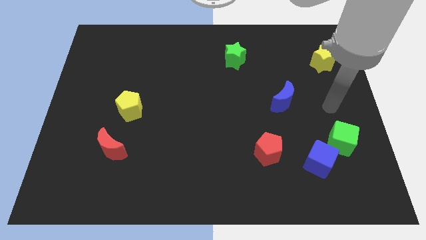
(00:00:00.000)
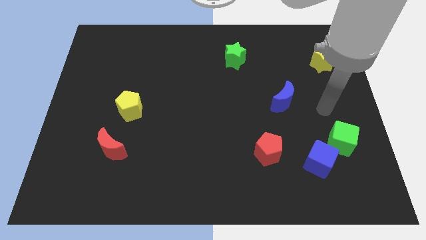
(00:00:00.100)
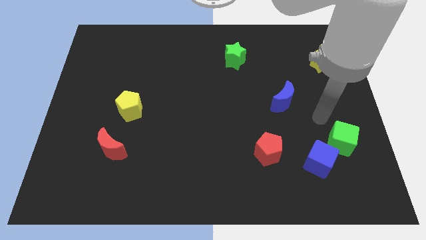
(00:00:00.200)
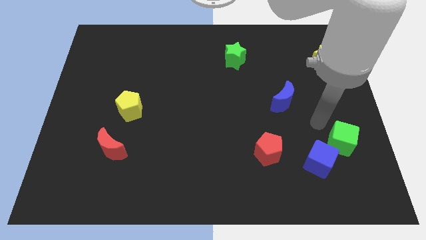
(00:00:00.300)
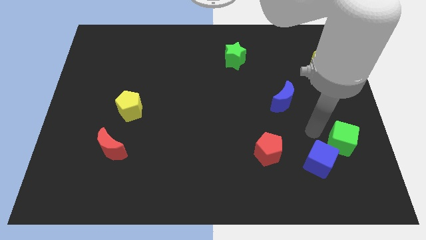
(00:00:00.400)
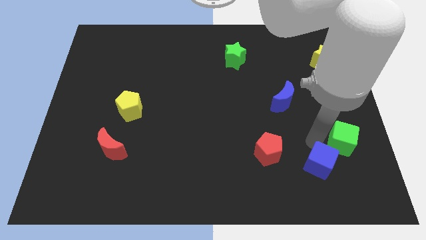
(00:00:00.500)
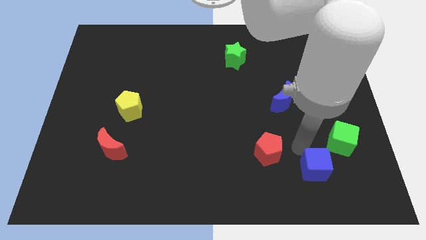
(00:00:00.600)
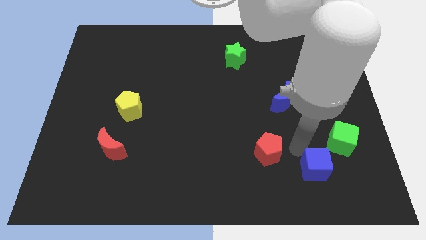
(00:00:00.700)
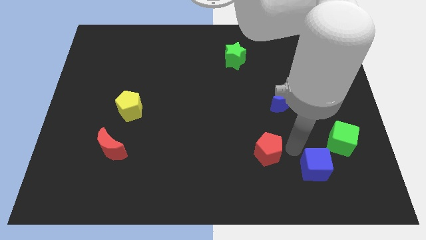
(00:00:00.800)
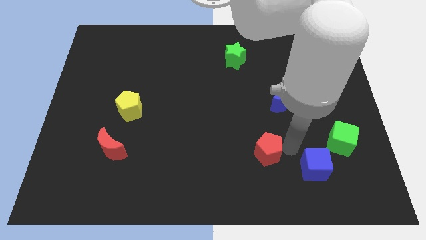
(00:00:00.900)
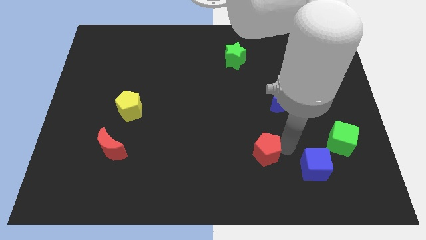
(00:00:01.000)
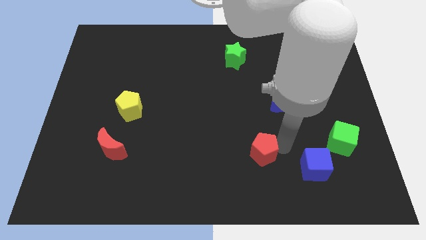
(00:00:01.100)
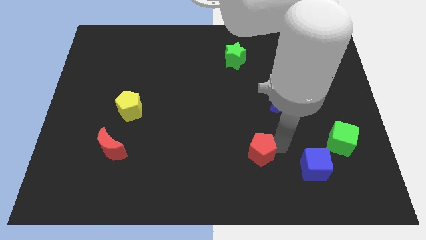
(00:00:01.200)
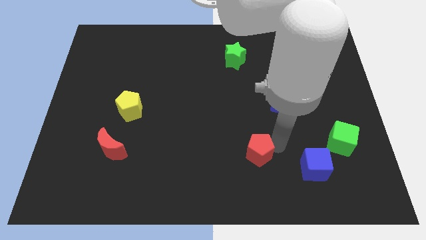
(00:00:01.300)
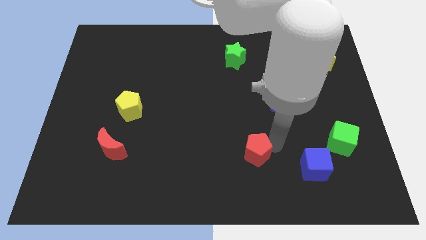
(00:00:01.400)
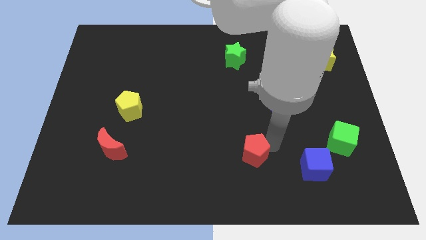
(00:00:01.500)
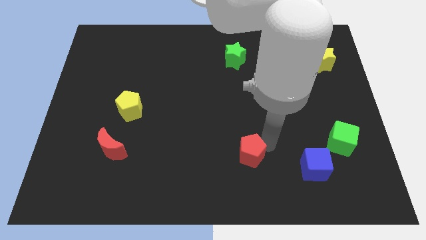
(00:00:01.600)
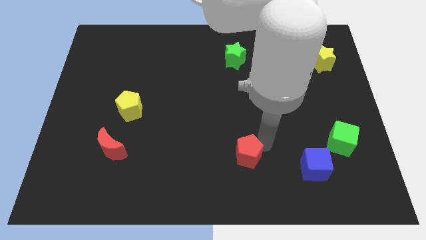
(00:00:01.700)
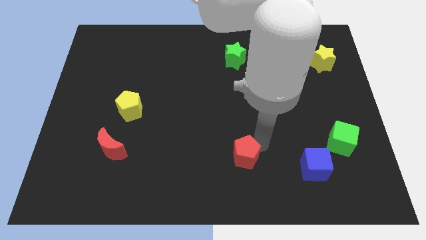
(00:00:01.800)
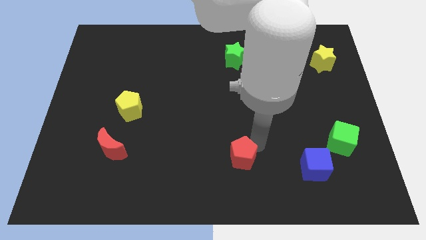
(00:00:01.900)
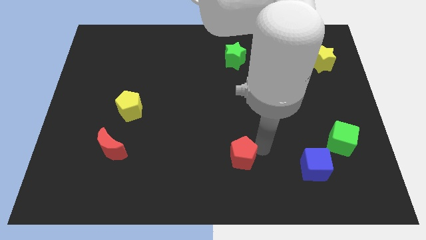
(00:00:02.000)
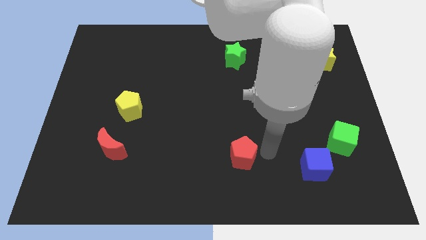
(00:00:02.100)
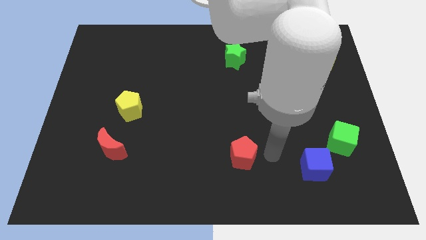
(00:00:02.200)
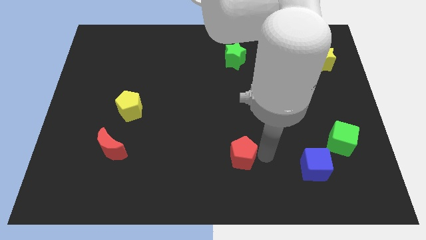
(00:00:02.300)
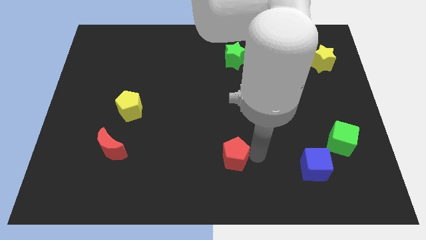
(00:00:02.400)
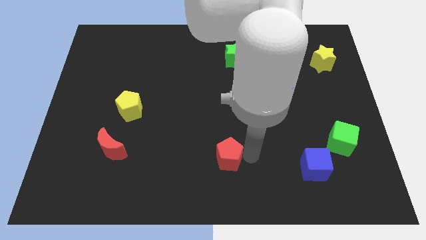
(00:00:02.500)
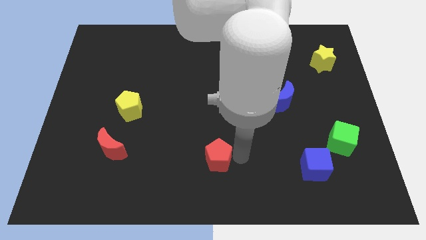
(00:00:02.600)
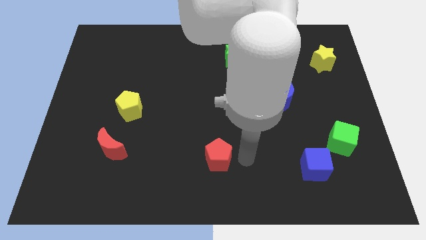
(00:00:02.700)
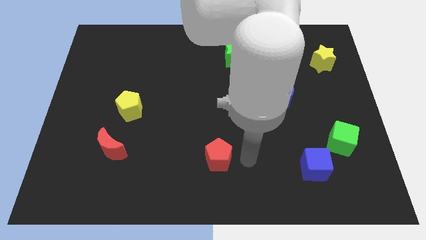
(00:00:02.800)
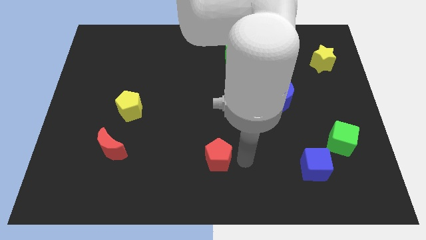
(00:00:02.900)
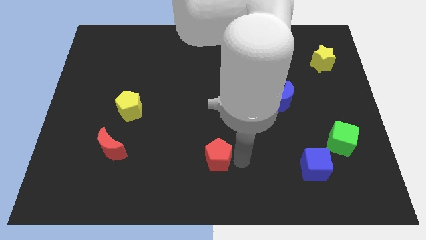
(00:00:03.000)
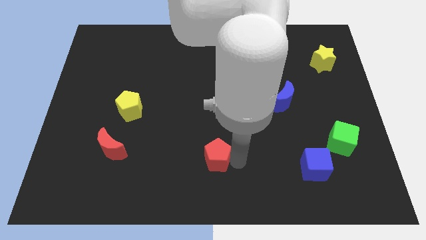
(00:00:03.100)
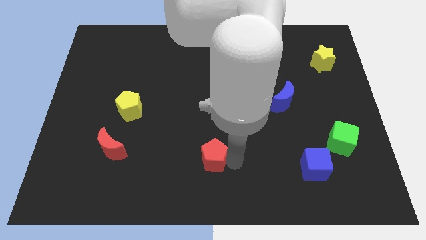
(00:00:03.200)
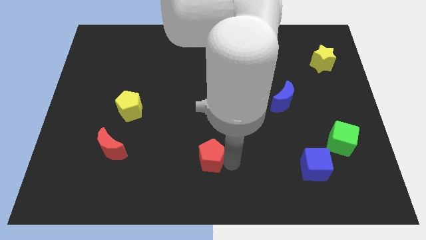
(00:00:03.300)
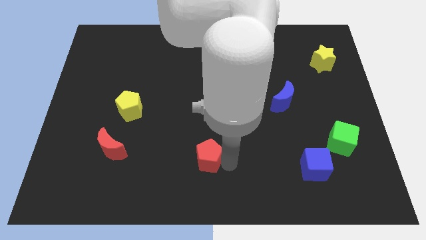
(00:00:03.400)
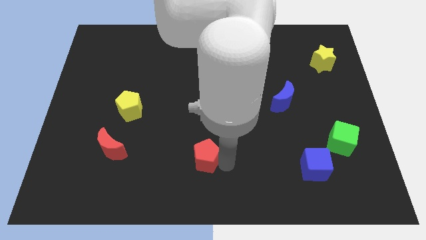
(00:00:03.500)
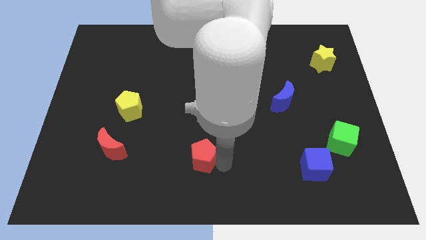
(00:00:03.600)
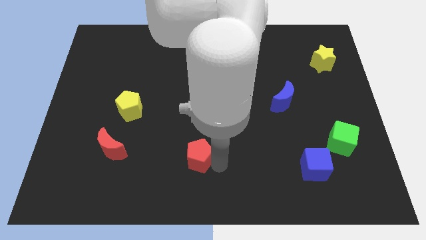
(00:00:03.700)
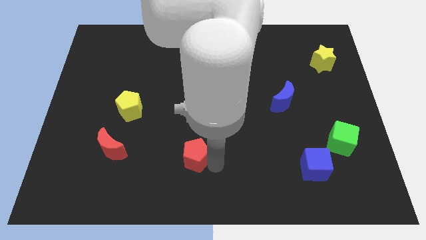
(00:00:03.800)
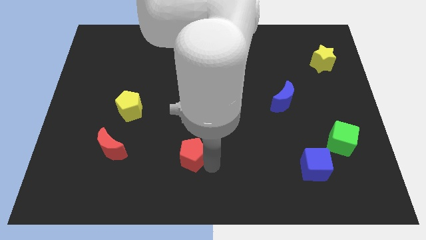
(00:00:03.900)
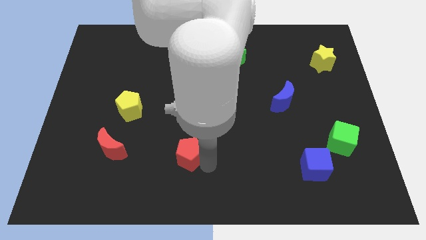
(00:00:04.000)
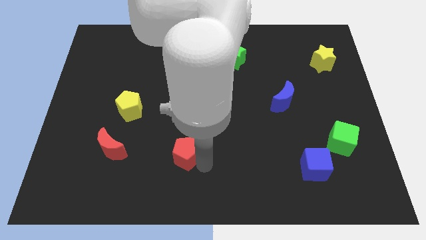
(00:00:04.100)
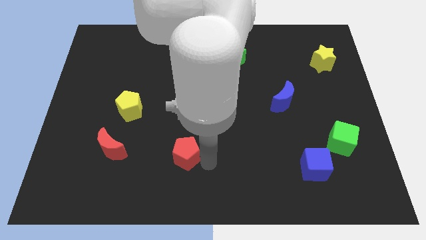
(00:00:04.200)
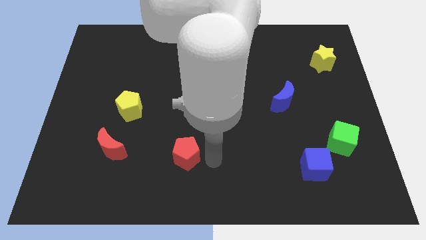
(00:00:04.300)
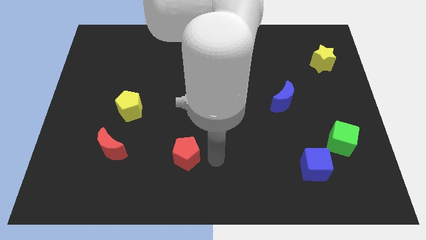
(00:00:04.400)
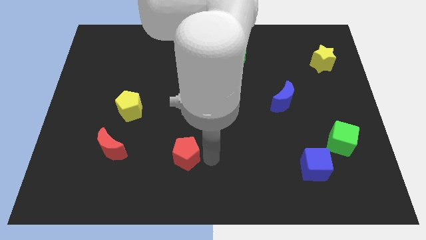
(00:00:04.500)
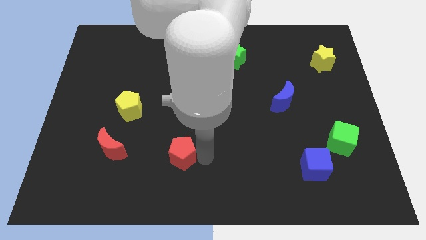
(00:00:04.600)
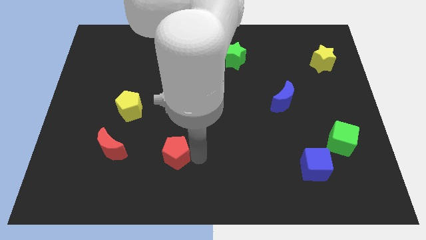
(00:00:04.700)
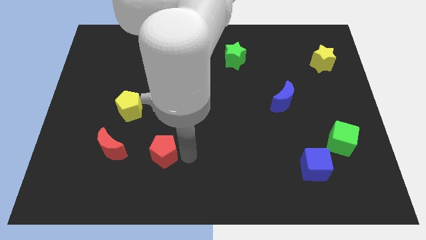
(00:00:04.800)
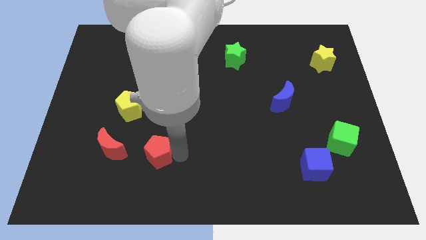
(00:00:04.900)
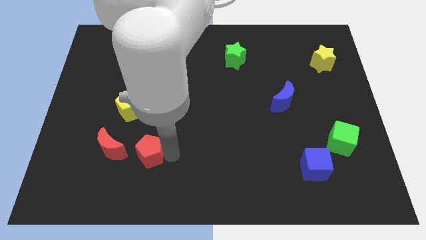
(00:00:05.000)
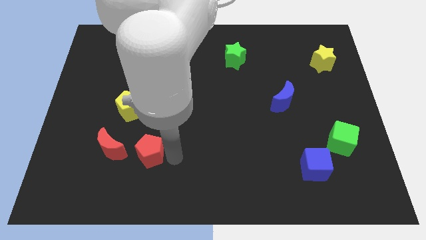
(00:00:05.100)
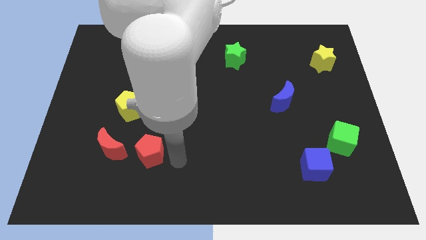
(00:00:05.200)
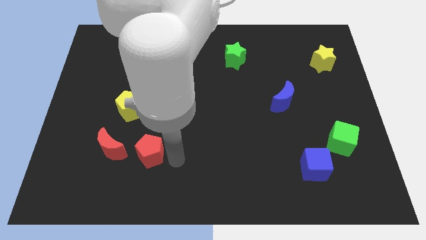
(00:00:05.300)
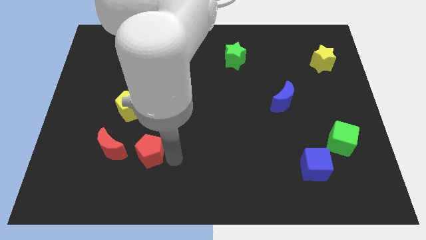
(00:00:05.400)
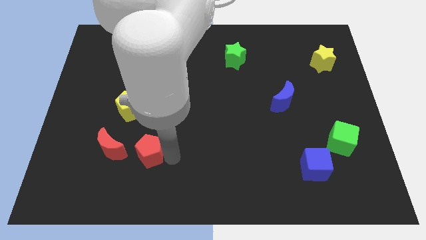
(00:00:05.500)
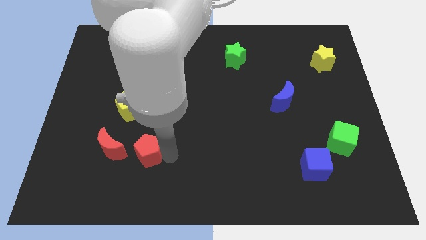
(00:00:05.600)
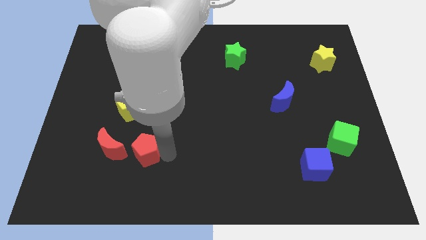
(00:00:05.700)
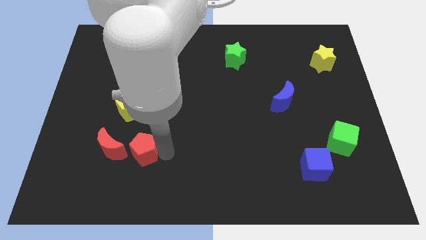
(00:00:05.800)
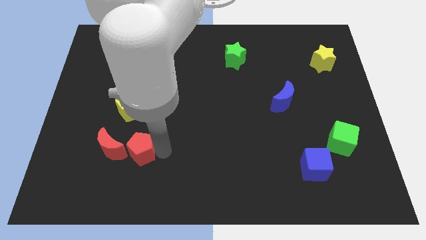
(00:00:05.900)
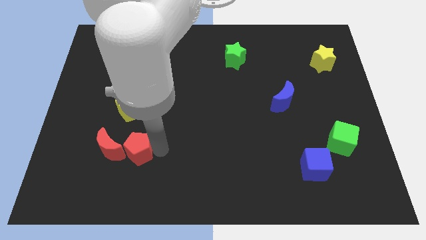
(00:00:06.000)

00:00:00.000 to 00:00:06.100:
move the red pentagon next to the red moon

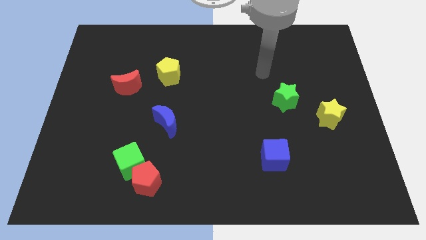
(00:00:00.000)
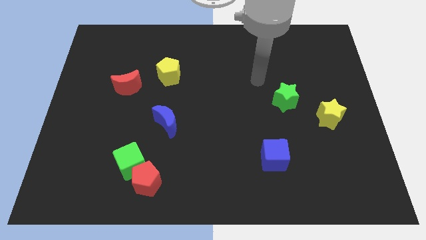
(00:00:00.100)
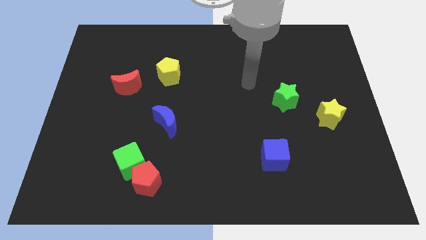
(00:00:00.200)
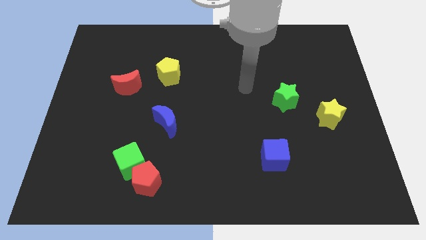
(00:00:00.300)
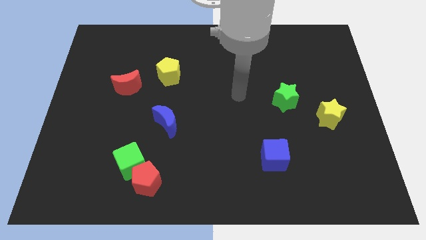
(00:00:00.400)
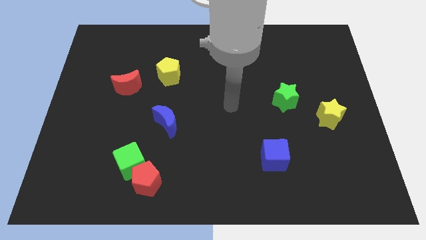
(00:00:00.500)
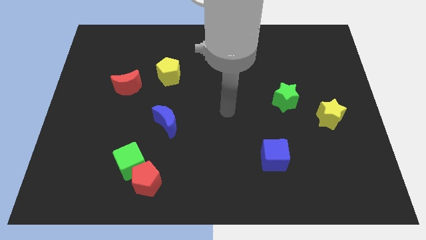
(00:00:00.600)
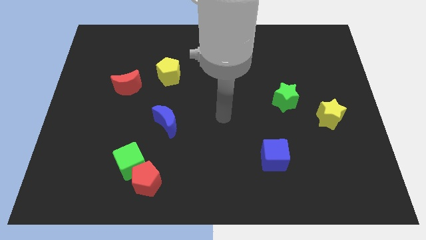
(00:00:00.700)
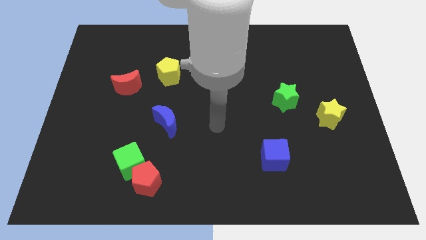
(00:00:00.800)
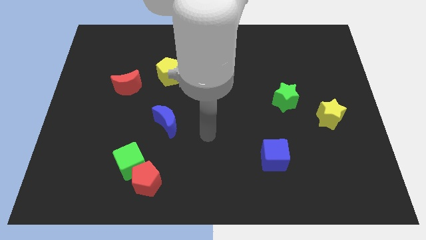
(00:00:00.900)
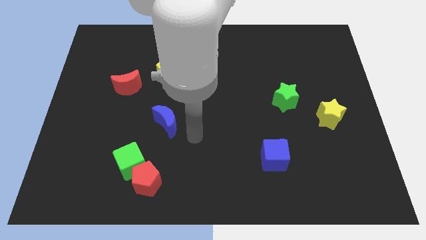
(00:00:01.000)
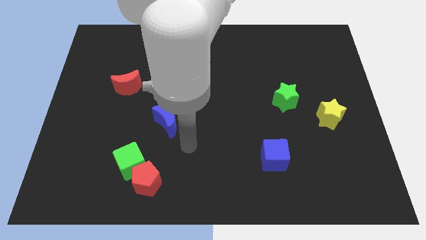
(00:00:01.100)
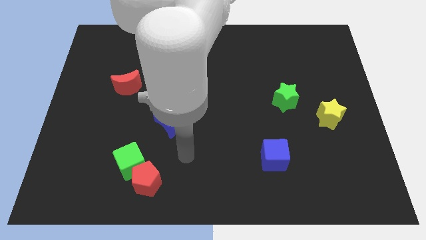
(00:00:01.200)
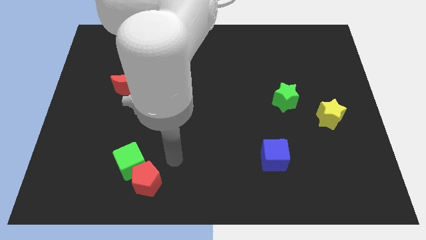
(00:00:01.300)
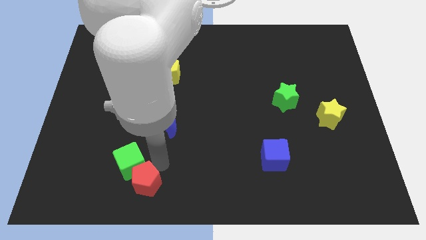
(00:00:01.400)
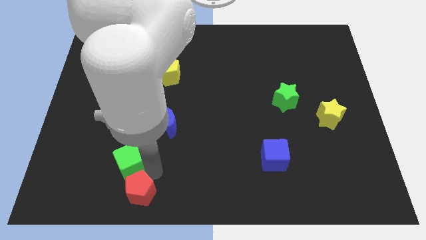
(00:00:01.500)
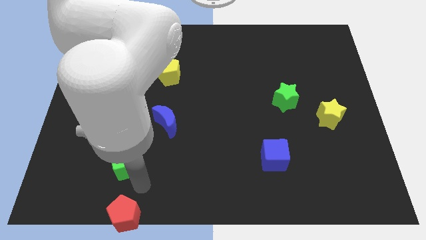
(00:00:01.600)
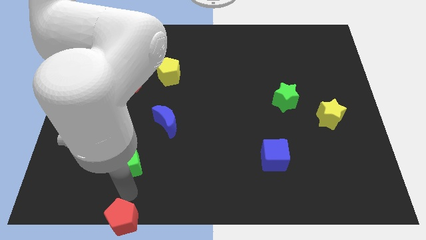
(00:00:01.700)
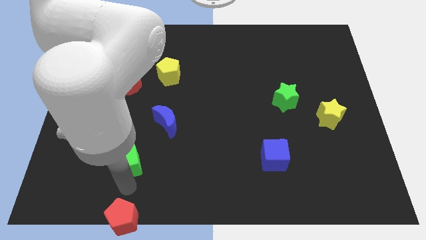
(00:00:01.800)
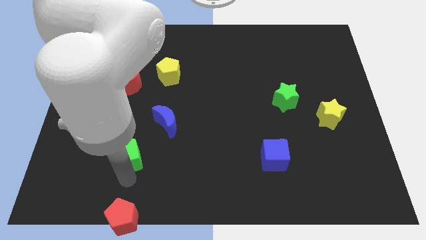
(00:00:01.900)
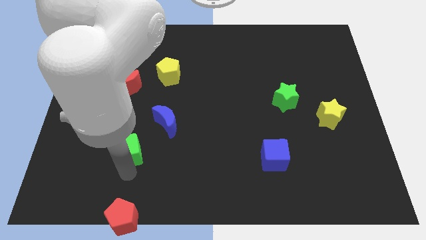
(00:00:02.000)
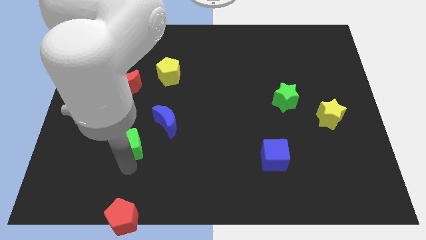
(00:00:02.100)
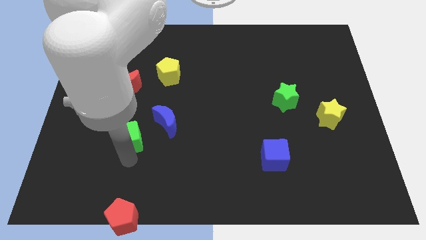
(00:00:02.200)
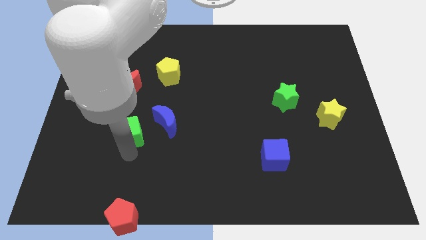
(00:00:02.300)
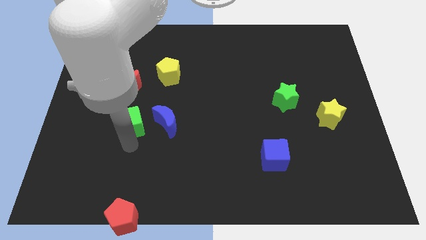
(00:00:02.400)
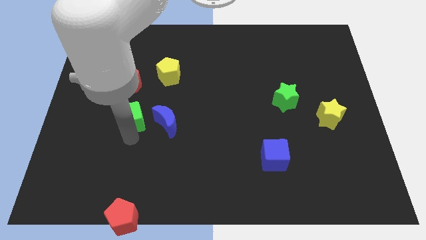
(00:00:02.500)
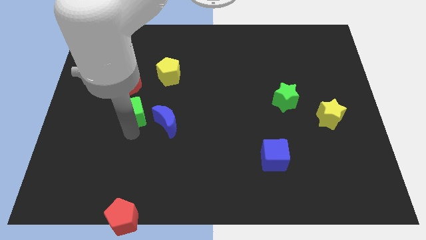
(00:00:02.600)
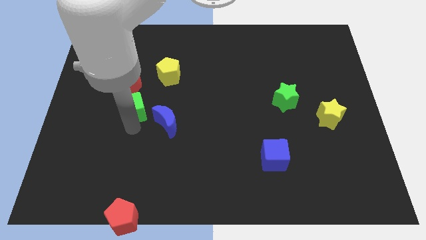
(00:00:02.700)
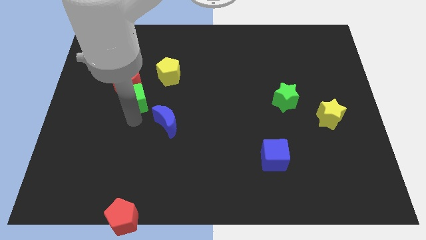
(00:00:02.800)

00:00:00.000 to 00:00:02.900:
push the green cube close to the red moon
